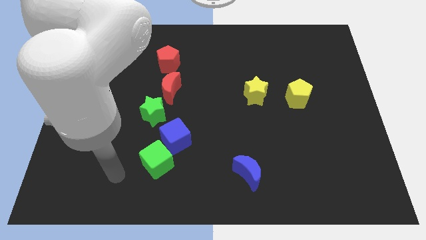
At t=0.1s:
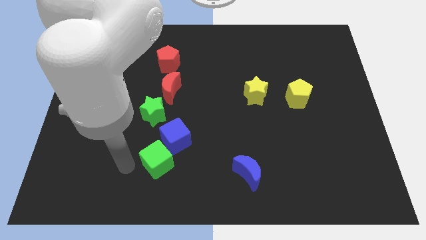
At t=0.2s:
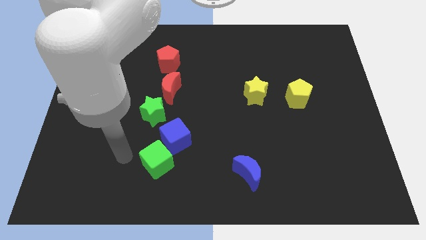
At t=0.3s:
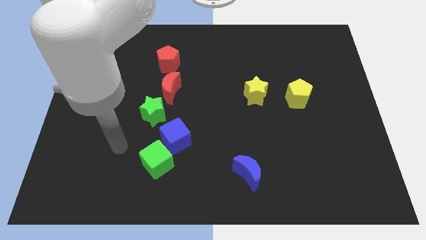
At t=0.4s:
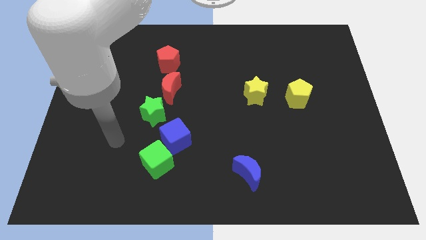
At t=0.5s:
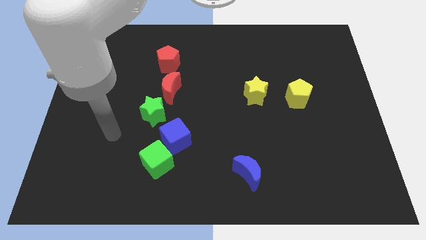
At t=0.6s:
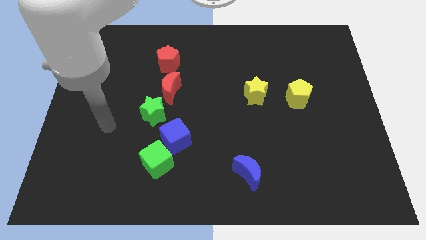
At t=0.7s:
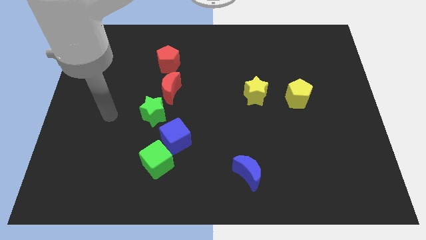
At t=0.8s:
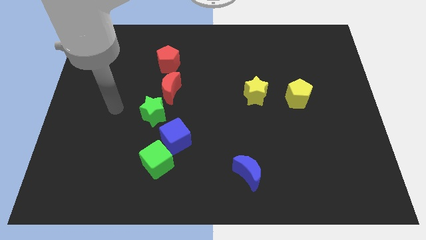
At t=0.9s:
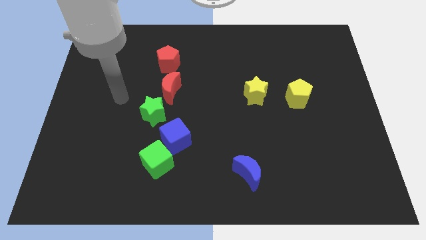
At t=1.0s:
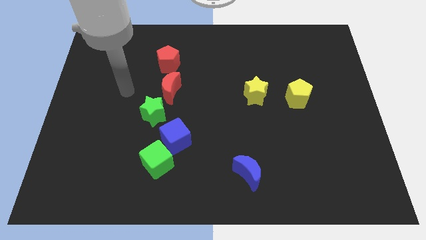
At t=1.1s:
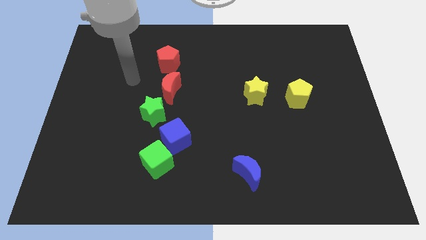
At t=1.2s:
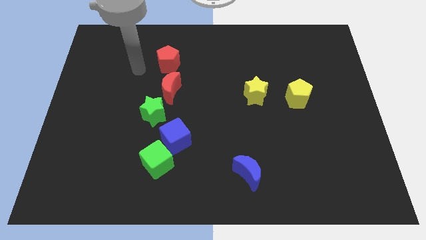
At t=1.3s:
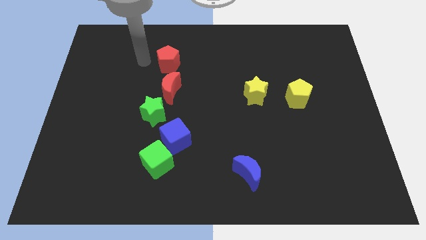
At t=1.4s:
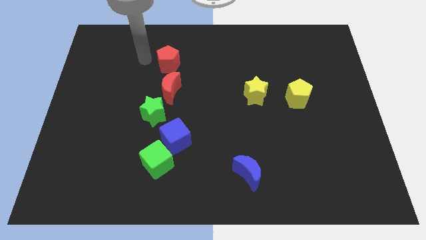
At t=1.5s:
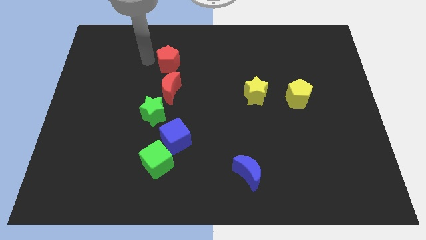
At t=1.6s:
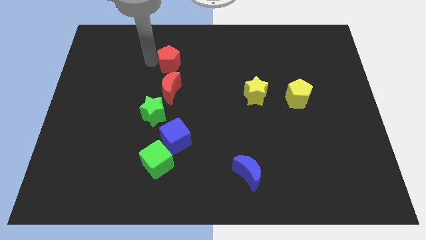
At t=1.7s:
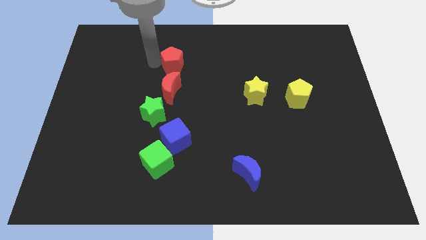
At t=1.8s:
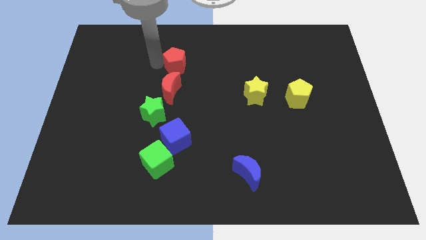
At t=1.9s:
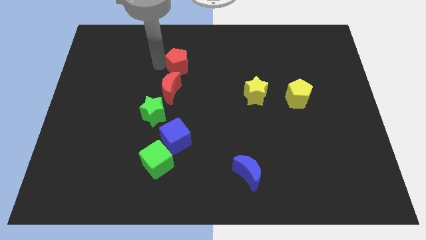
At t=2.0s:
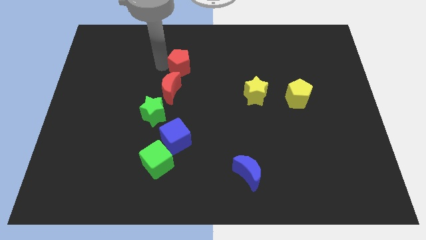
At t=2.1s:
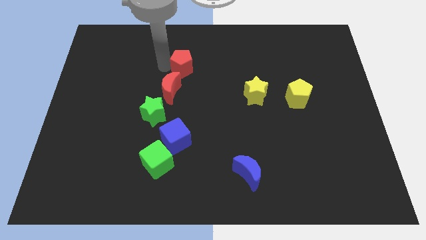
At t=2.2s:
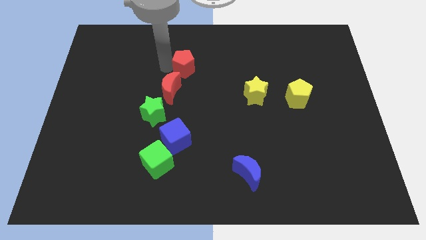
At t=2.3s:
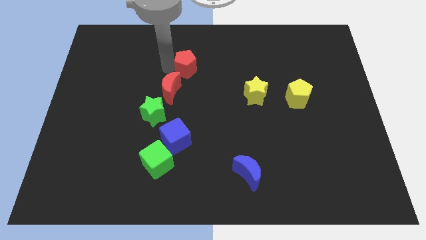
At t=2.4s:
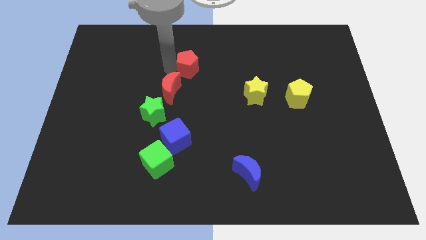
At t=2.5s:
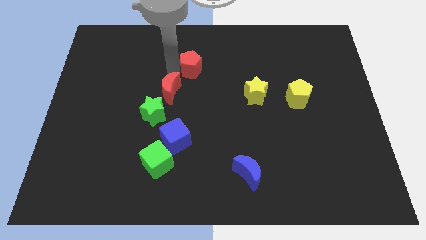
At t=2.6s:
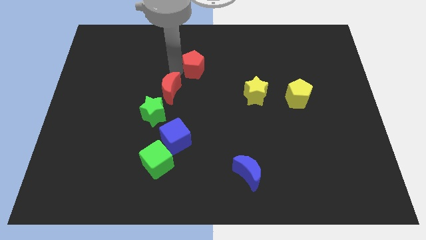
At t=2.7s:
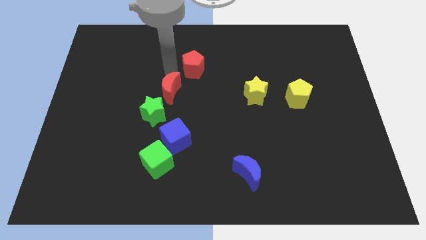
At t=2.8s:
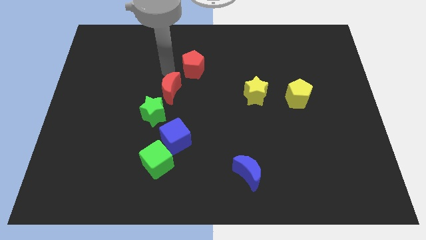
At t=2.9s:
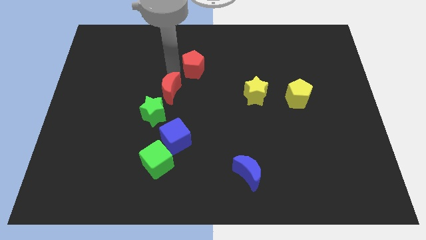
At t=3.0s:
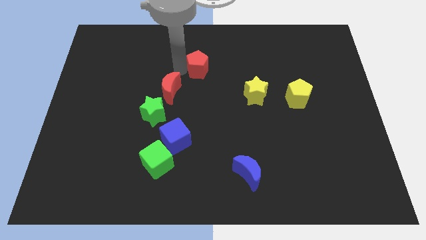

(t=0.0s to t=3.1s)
slide the red pentagon right a little bit

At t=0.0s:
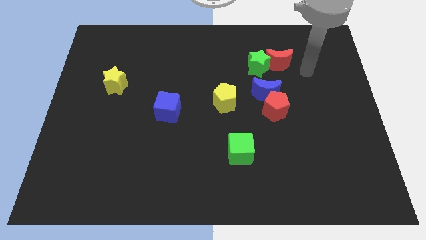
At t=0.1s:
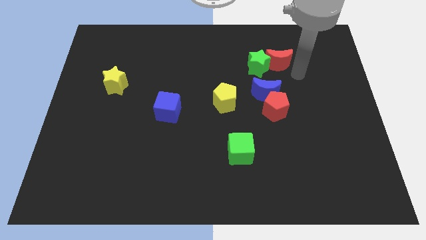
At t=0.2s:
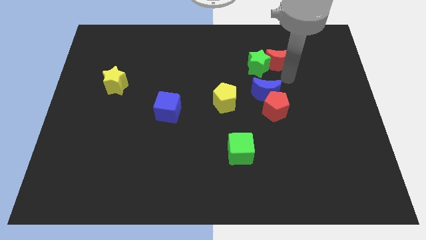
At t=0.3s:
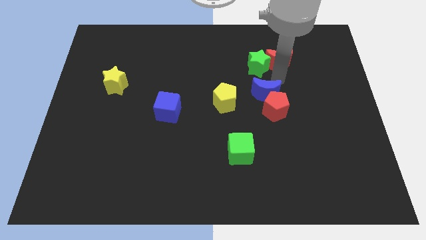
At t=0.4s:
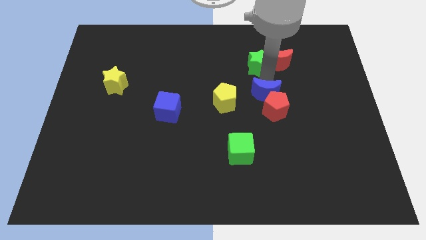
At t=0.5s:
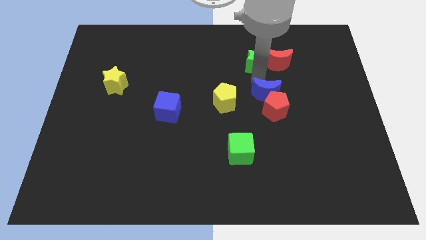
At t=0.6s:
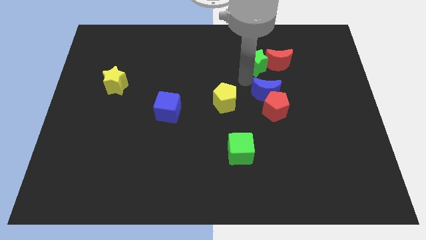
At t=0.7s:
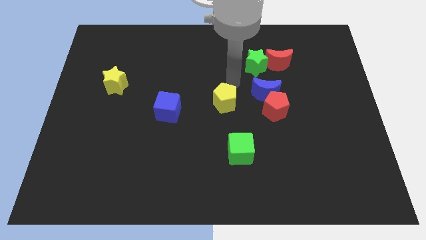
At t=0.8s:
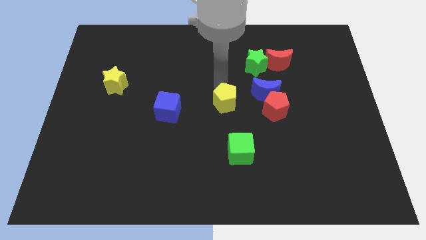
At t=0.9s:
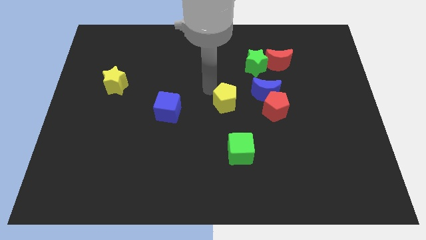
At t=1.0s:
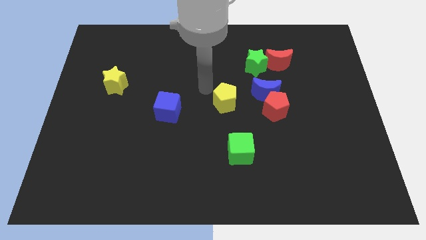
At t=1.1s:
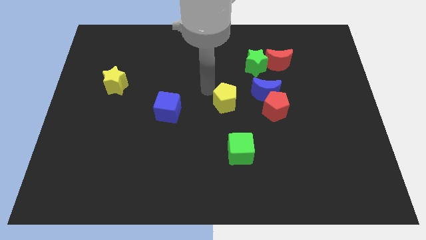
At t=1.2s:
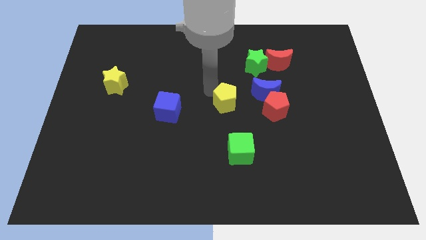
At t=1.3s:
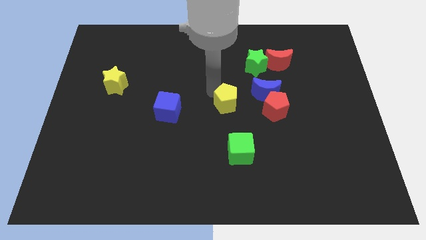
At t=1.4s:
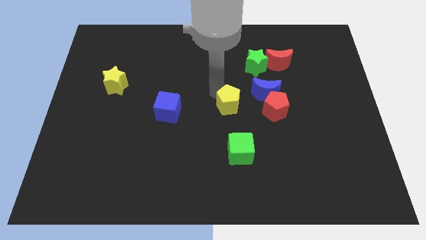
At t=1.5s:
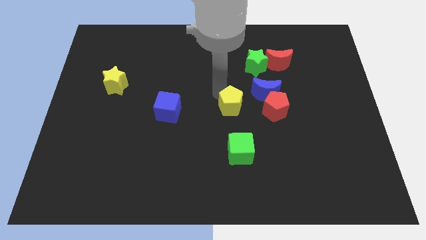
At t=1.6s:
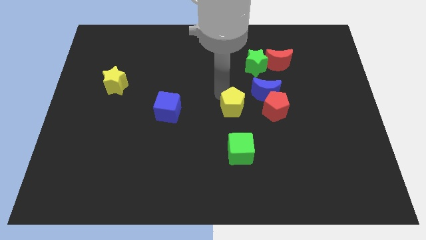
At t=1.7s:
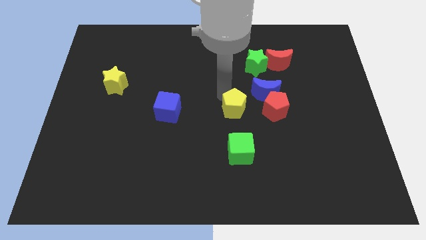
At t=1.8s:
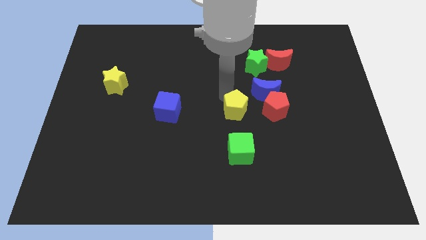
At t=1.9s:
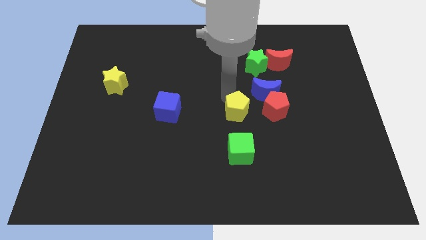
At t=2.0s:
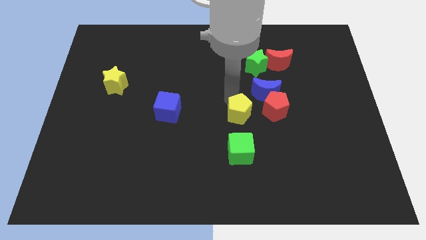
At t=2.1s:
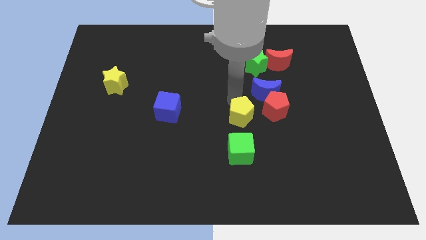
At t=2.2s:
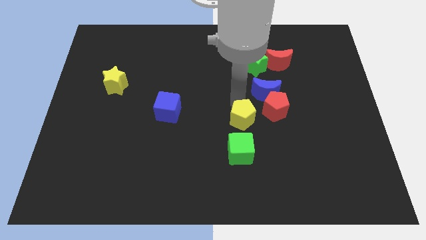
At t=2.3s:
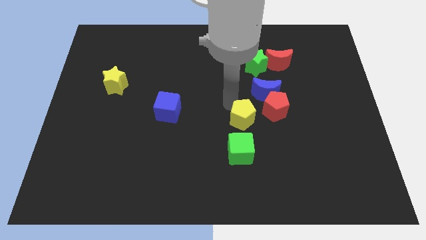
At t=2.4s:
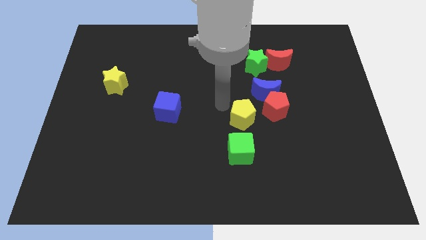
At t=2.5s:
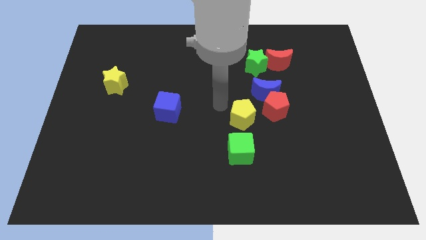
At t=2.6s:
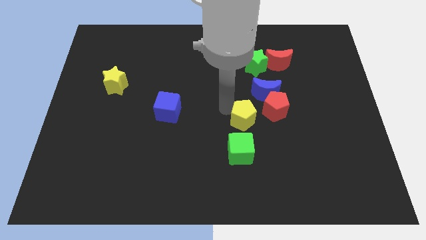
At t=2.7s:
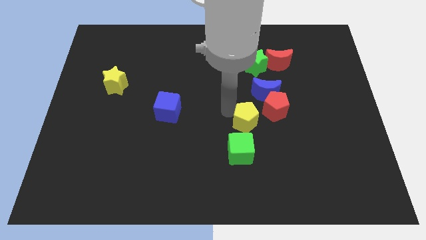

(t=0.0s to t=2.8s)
slide the yellow pentagon diagonally down and right a little

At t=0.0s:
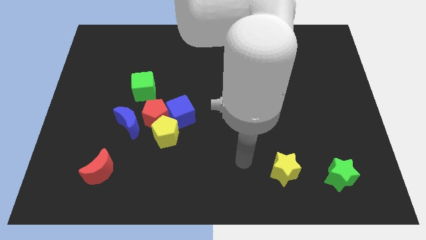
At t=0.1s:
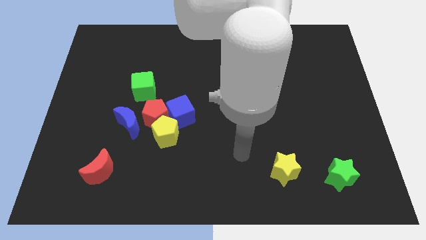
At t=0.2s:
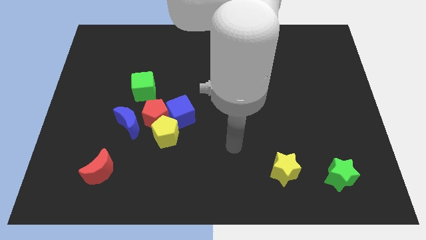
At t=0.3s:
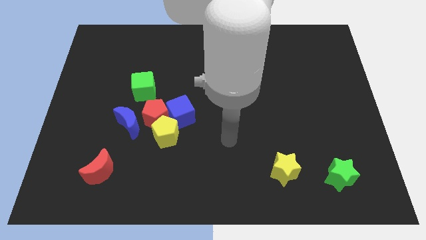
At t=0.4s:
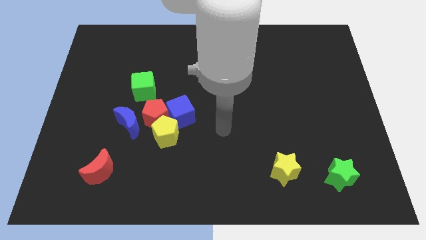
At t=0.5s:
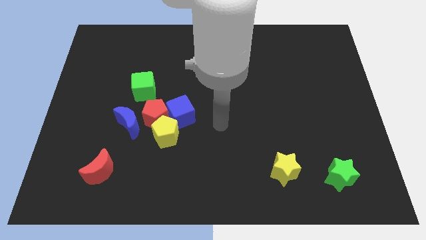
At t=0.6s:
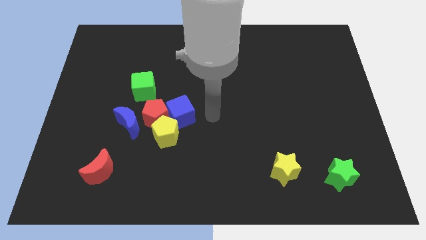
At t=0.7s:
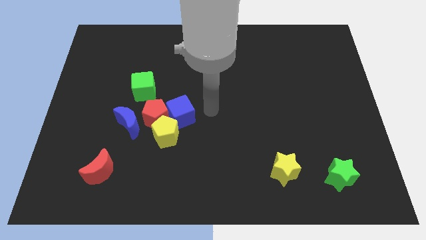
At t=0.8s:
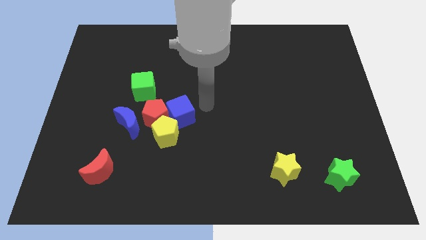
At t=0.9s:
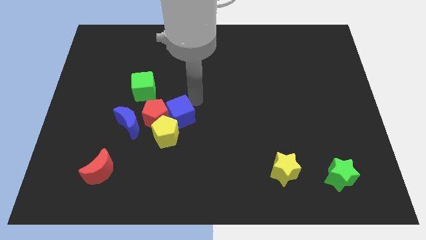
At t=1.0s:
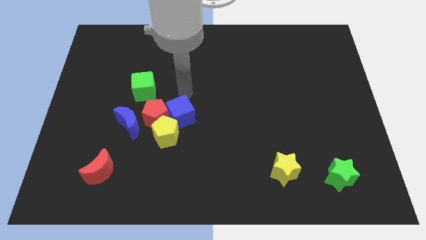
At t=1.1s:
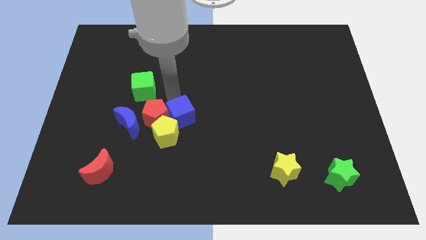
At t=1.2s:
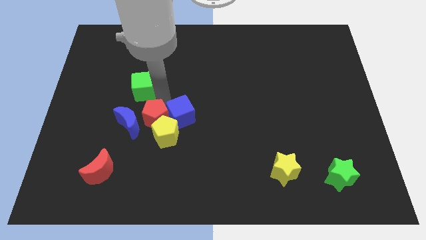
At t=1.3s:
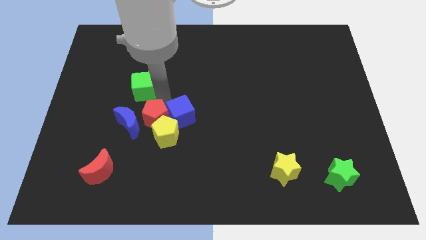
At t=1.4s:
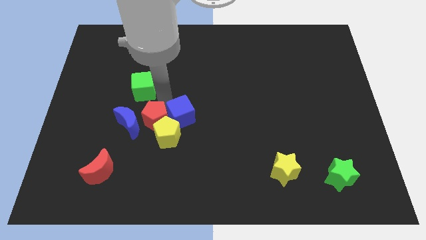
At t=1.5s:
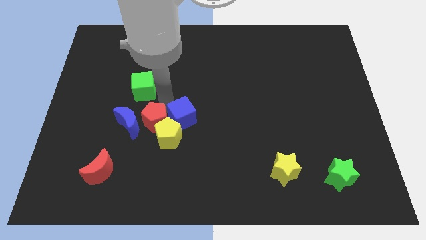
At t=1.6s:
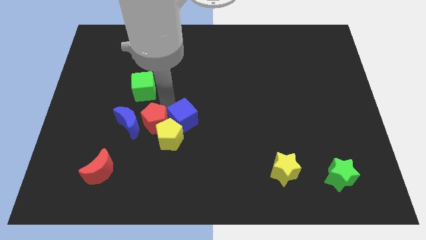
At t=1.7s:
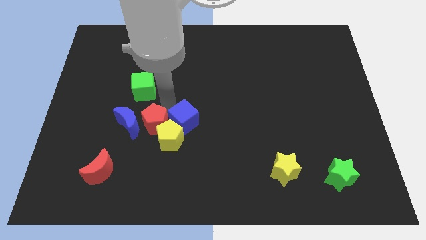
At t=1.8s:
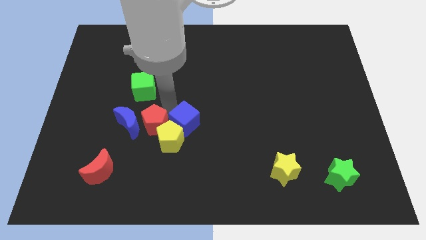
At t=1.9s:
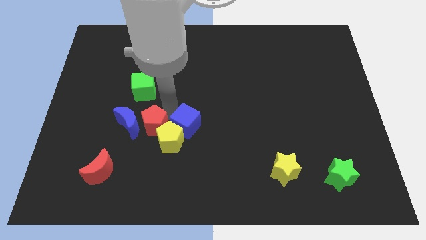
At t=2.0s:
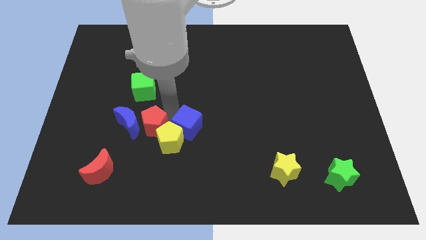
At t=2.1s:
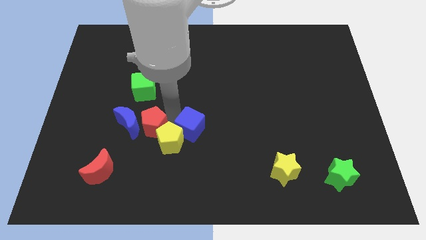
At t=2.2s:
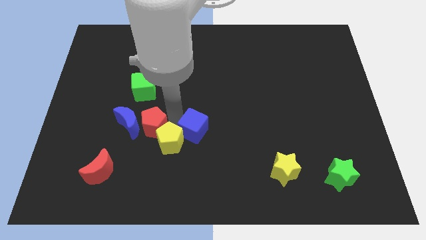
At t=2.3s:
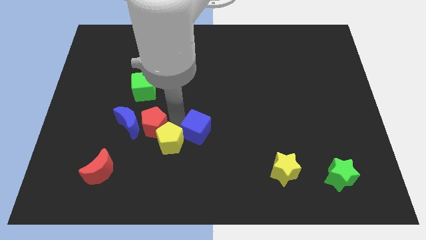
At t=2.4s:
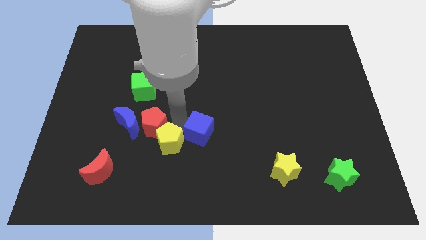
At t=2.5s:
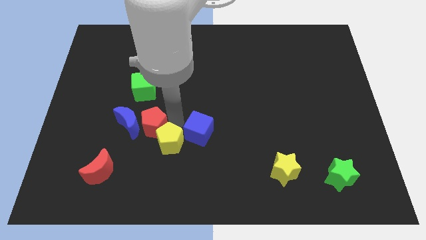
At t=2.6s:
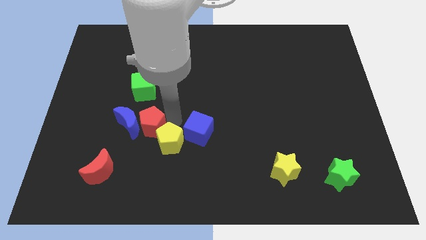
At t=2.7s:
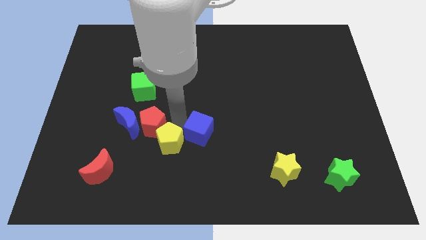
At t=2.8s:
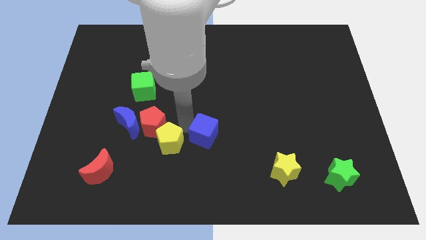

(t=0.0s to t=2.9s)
move the blue cube down and right diagonally somewhat
